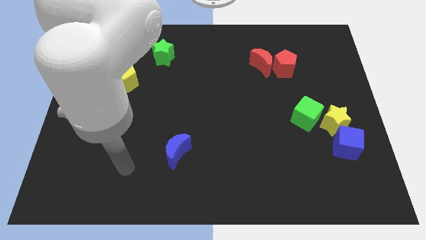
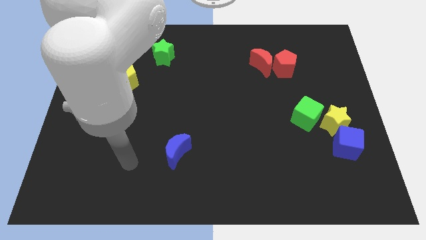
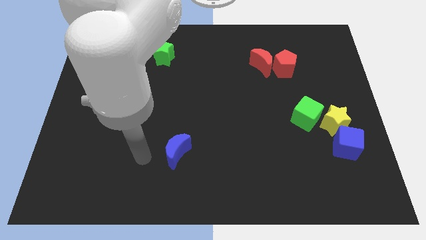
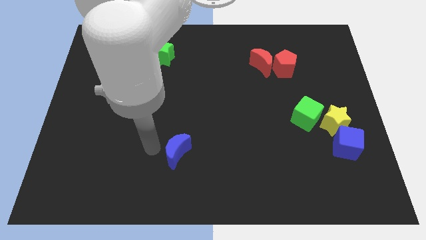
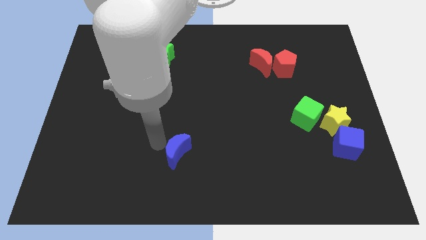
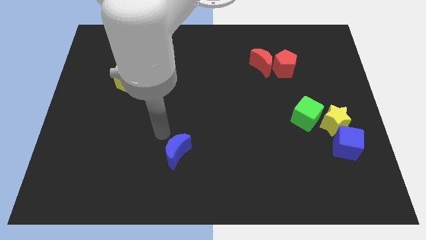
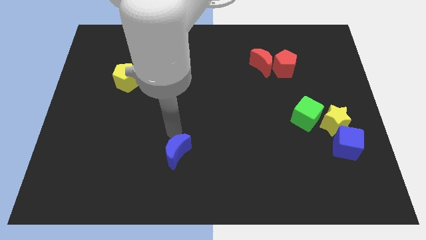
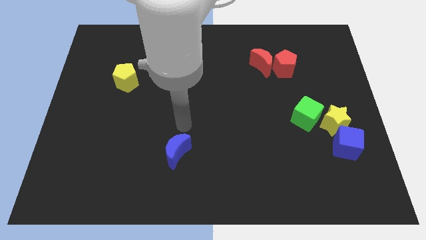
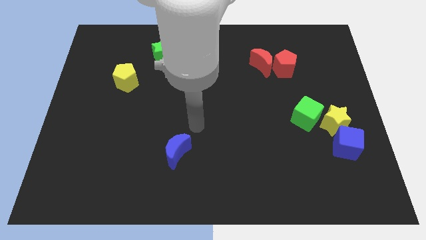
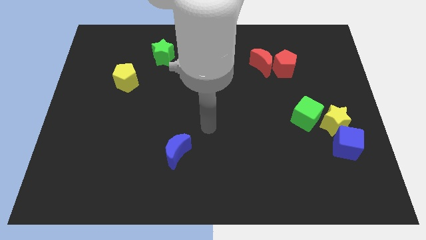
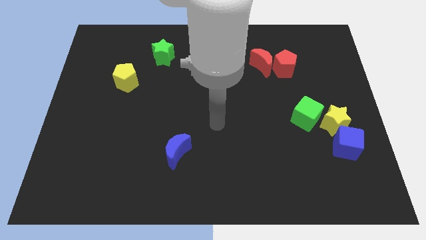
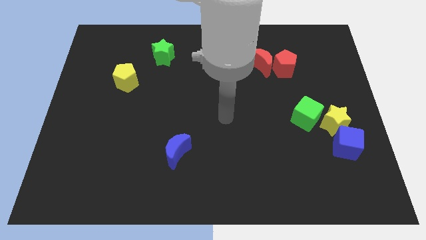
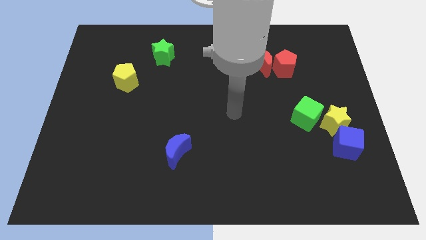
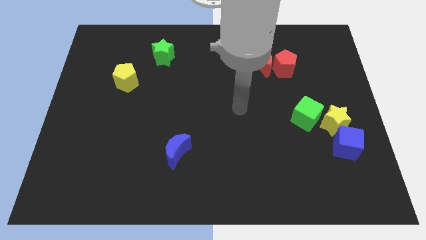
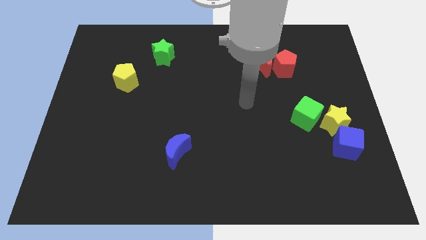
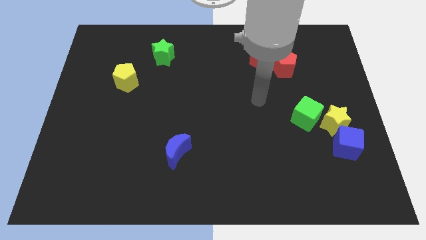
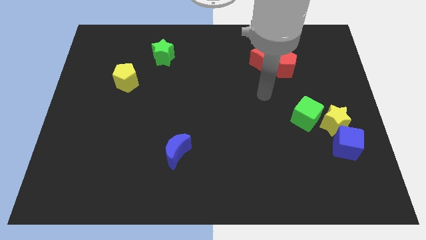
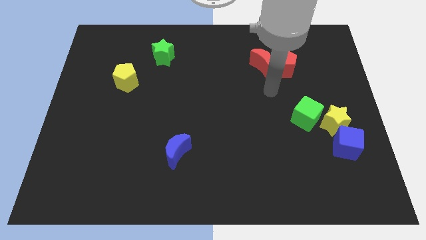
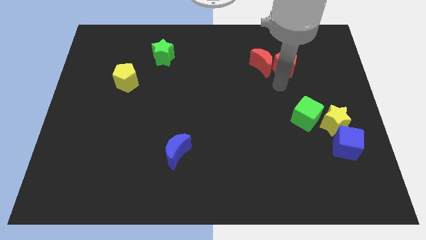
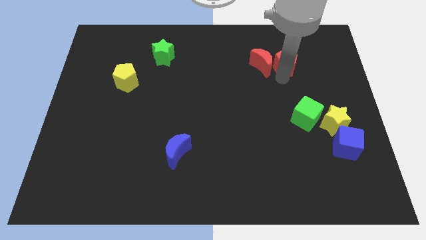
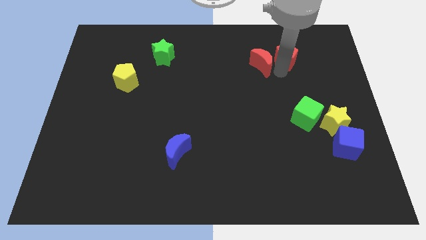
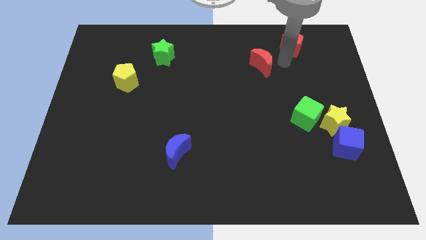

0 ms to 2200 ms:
pull the red moon apart from the red pentagon

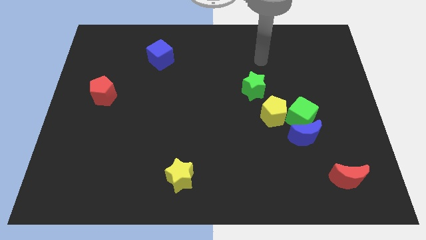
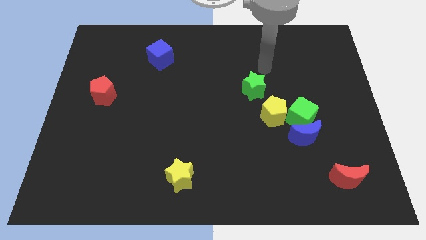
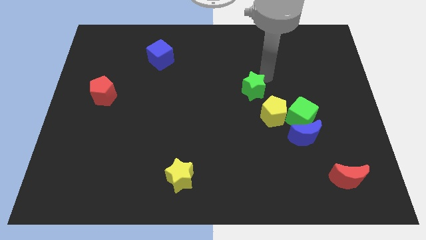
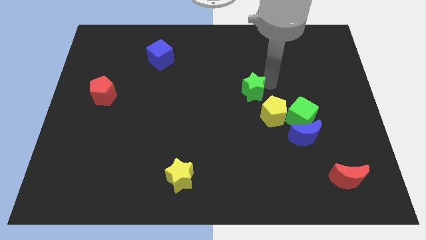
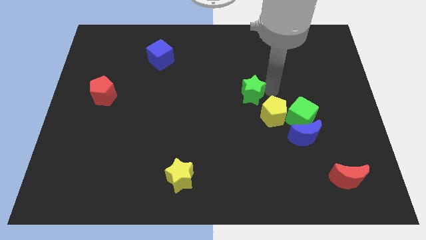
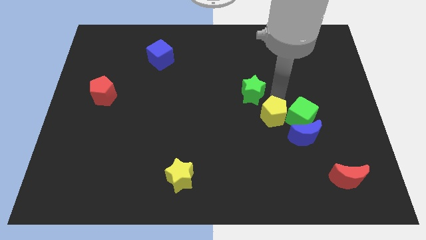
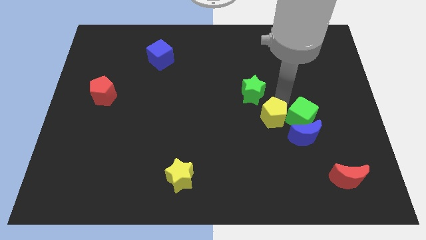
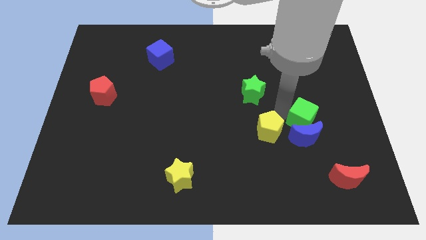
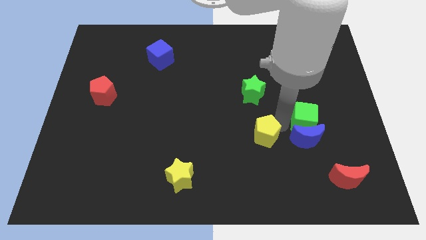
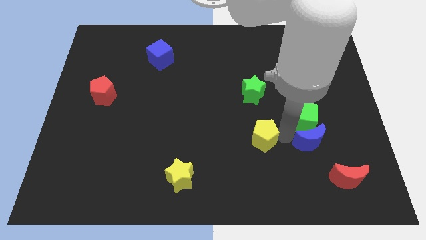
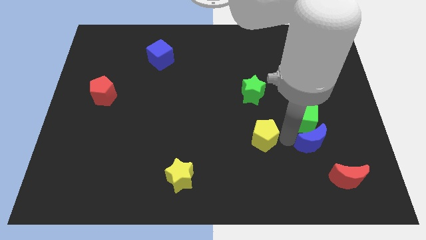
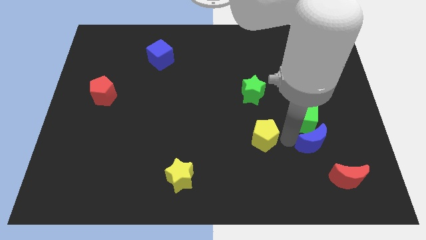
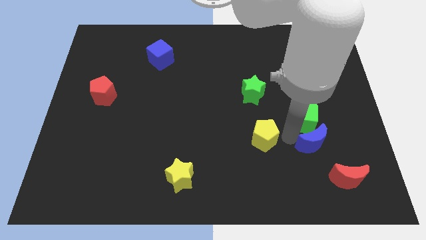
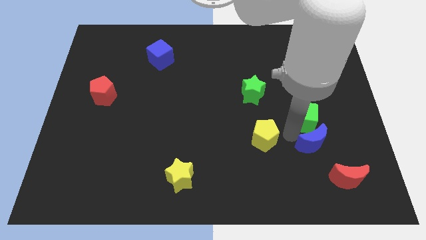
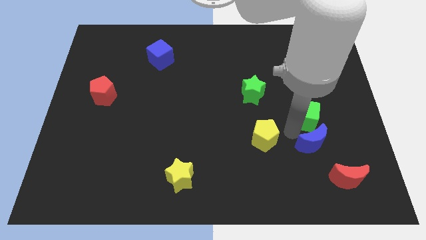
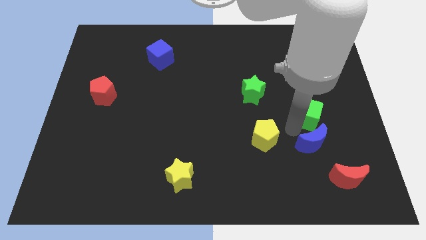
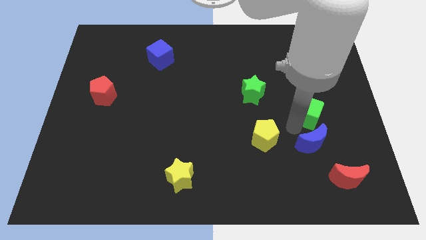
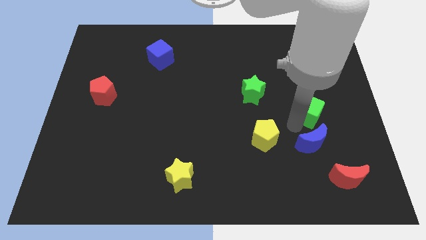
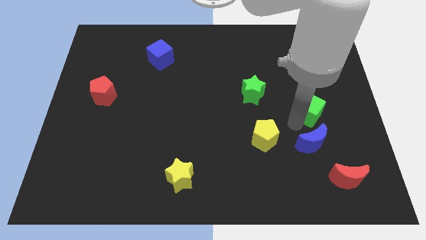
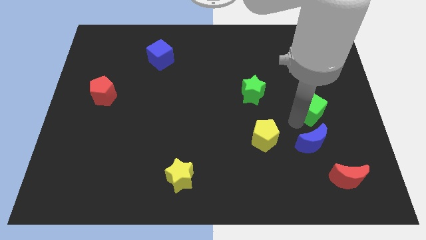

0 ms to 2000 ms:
pull the green cube apart from the blue moon and yellow pentagon

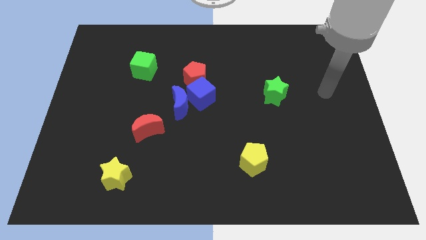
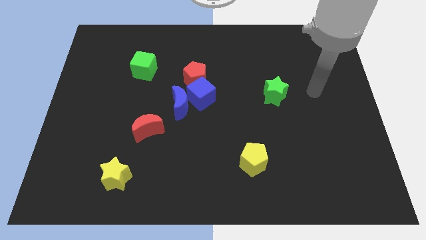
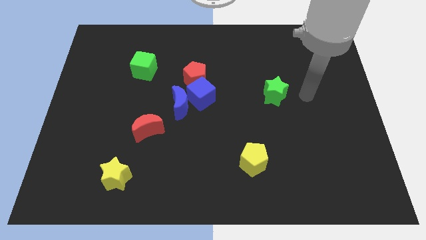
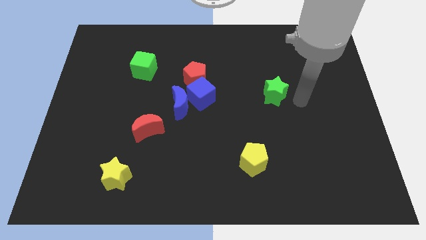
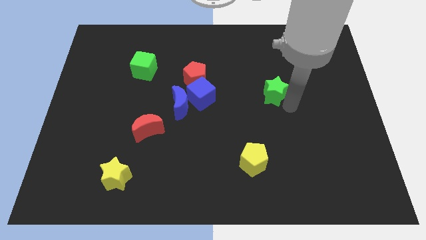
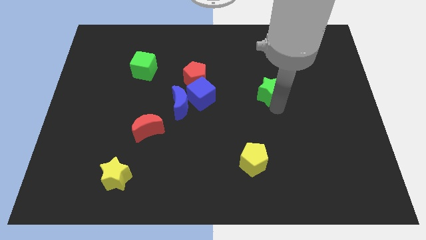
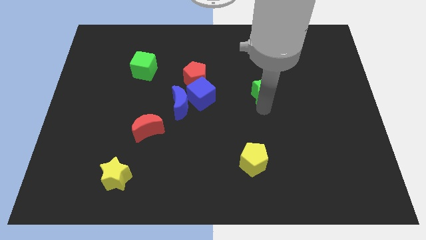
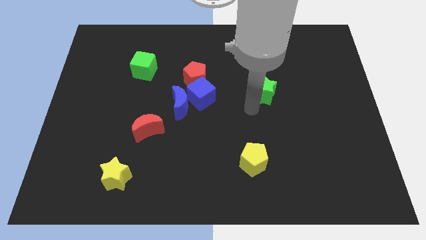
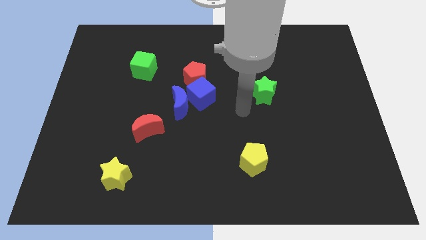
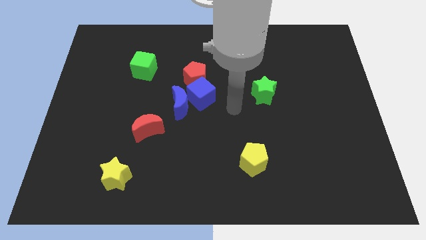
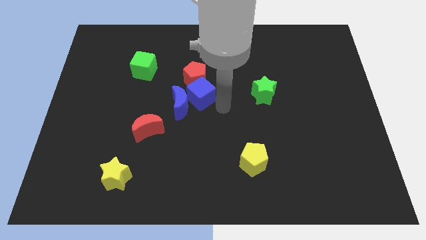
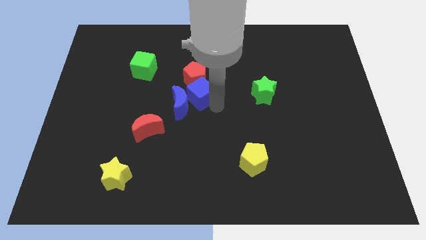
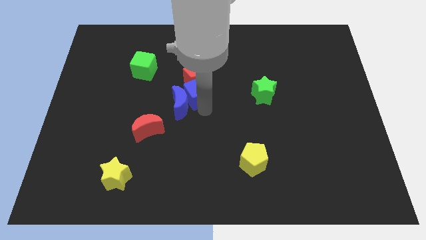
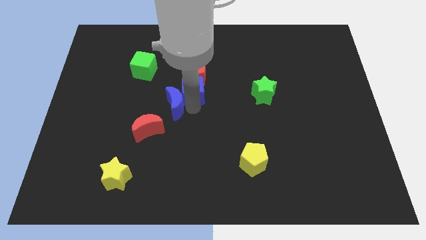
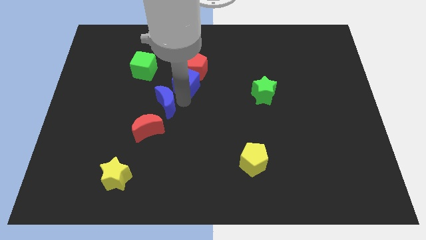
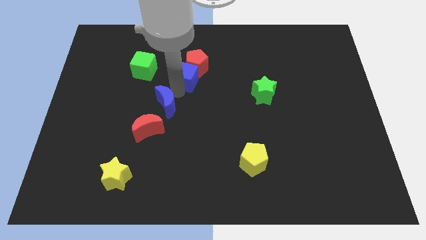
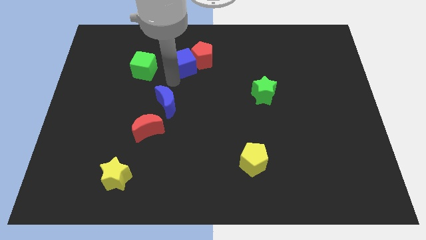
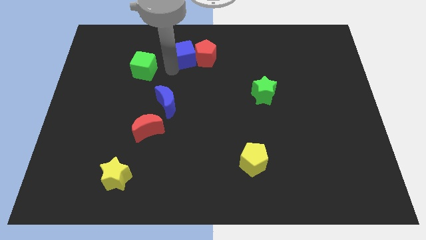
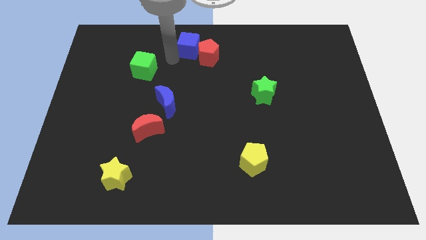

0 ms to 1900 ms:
pull the blue cube apart from the blue moon and red pentagon

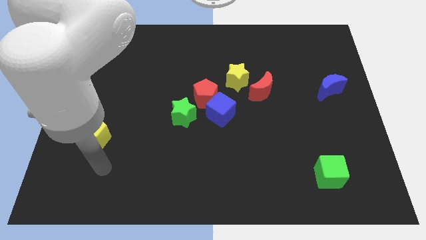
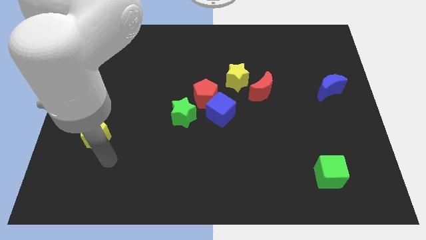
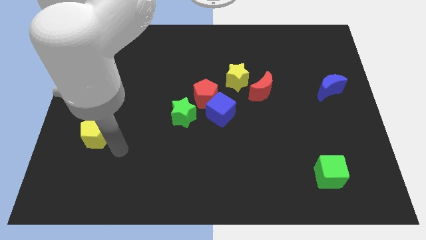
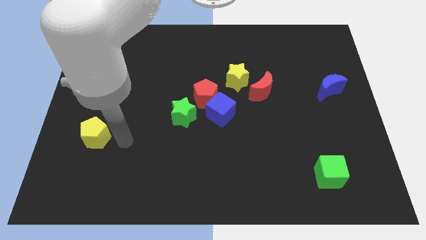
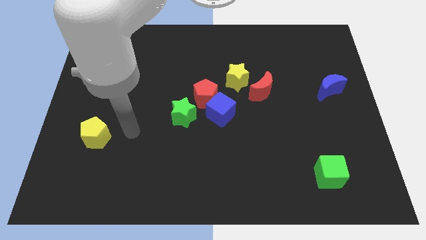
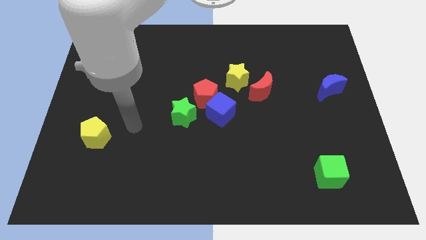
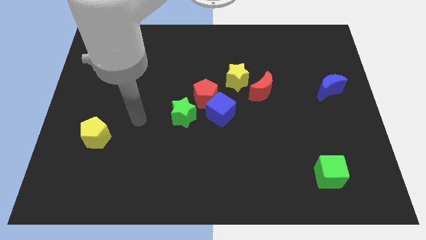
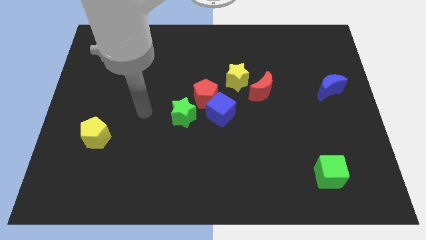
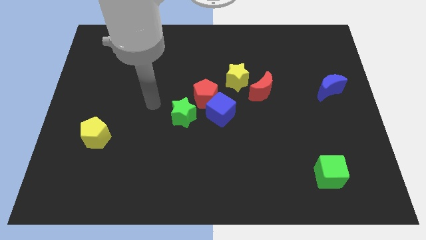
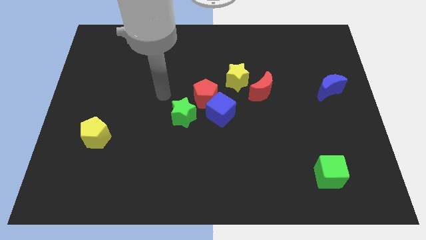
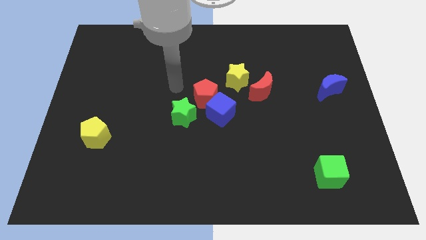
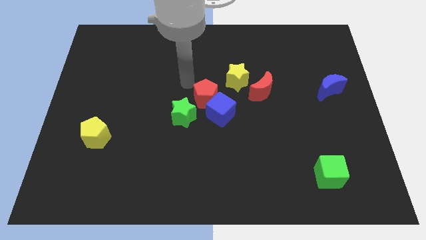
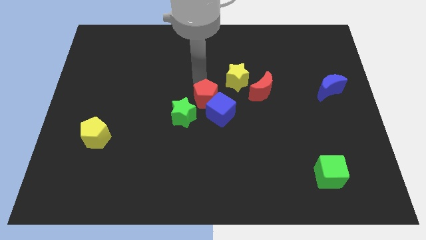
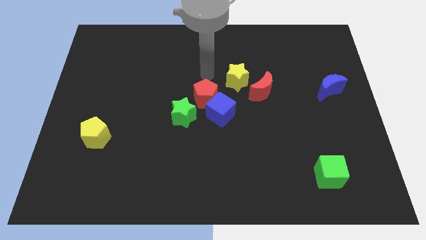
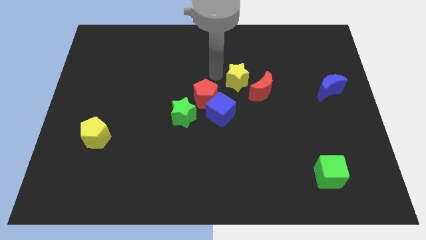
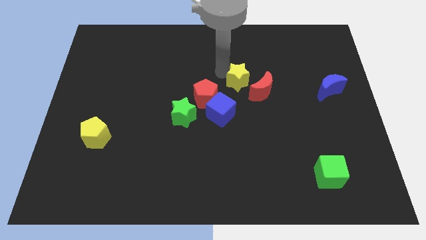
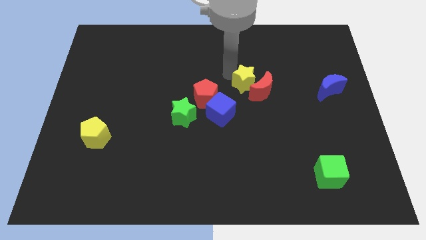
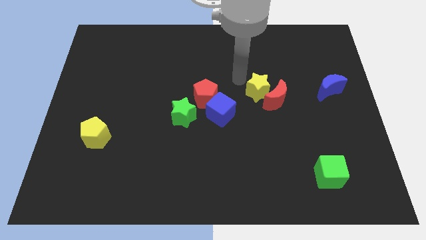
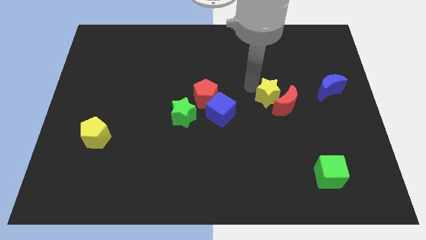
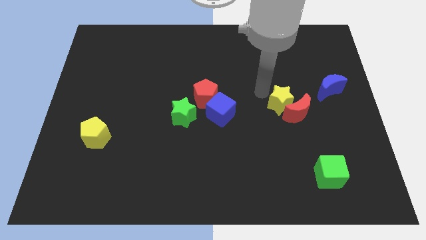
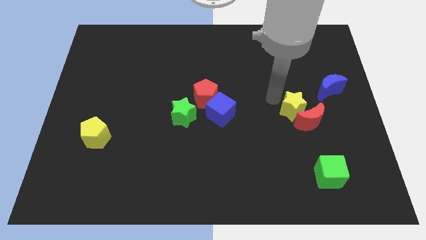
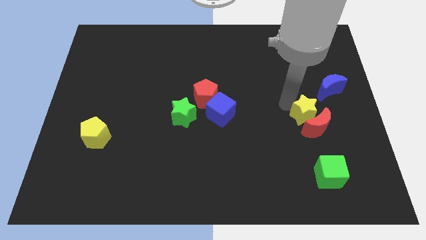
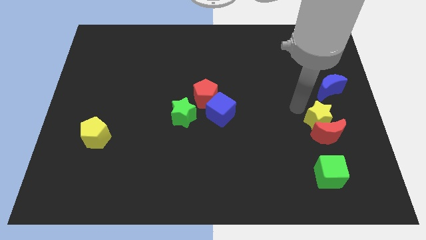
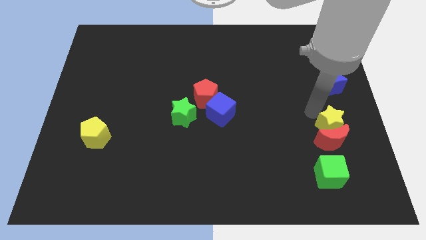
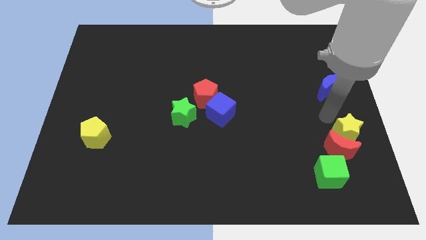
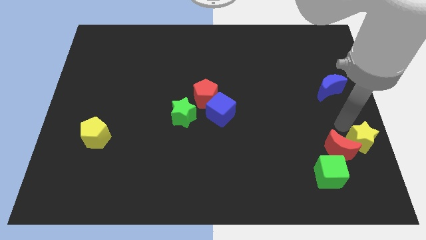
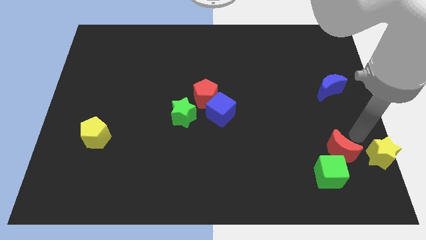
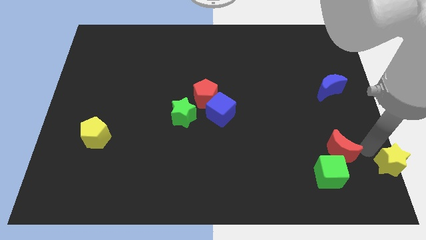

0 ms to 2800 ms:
pull the red moon apart from the yellow star

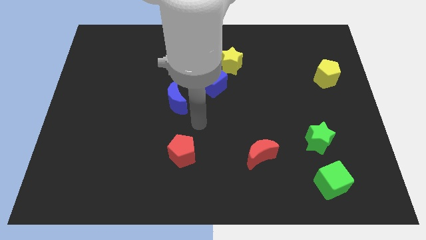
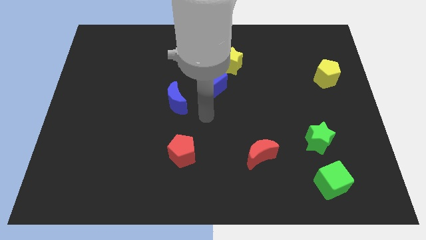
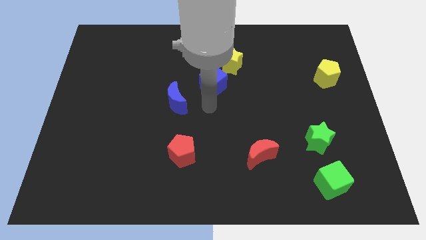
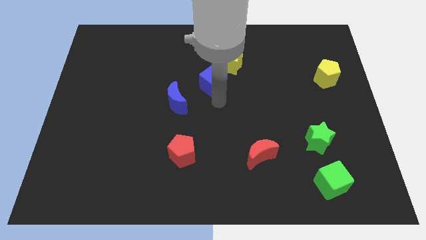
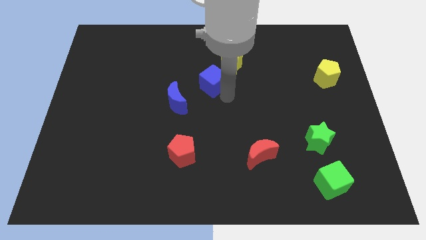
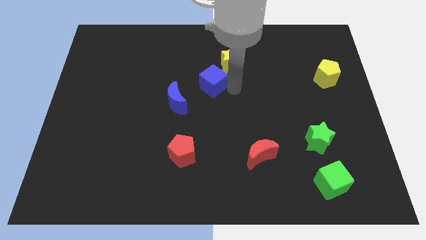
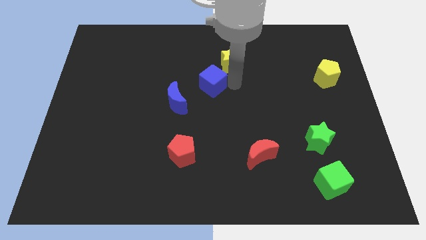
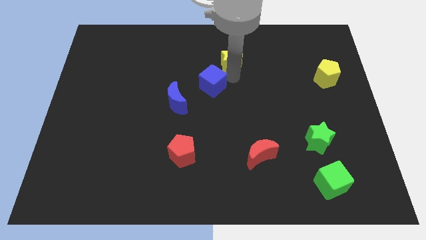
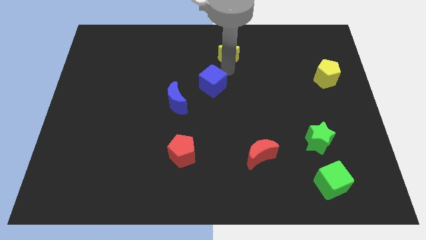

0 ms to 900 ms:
pull the blue cube apart from the yellow star
